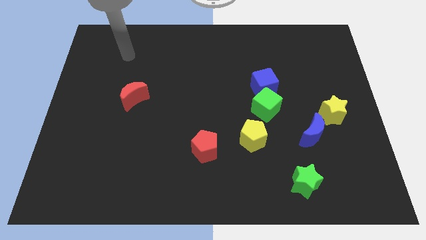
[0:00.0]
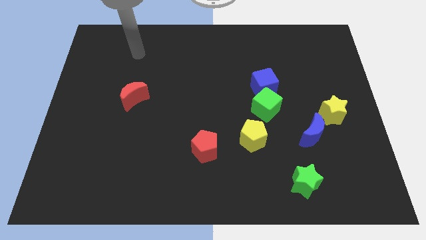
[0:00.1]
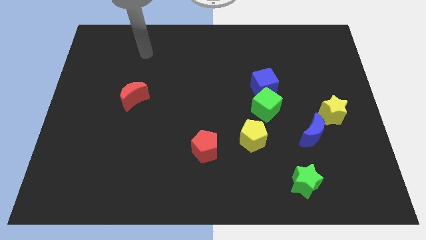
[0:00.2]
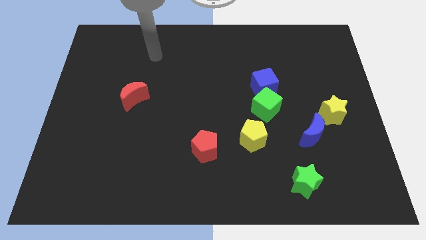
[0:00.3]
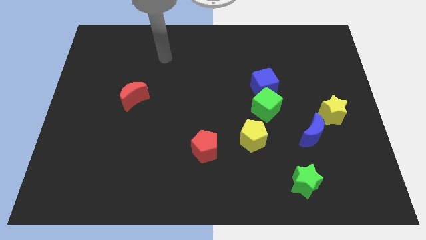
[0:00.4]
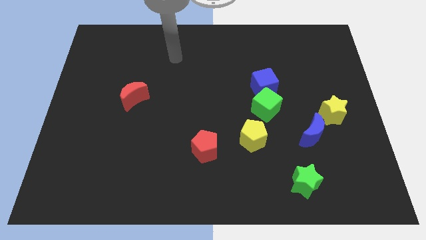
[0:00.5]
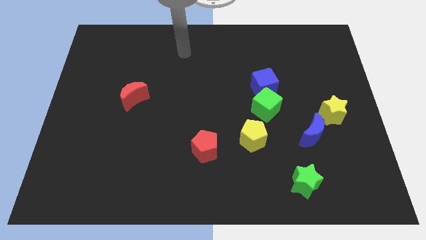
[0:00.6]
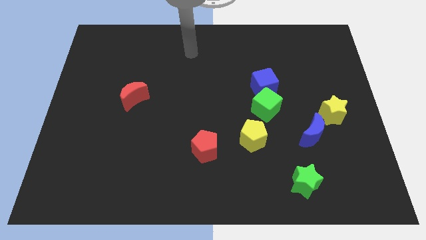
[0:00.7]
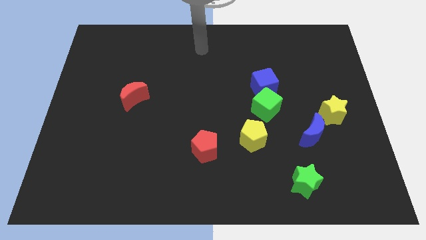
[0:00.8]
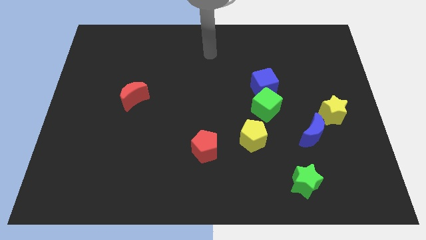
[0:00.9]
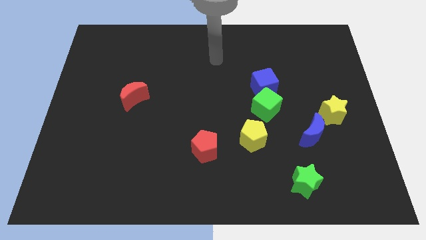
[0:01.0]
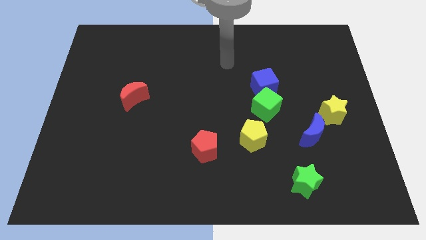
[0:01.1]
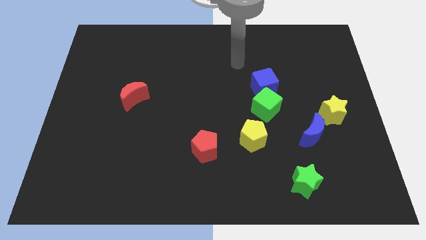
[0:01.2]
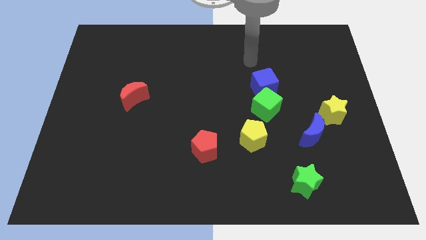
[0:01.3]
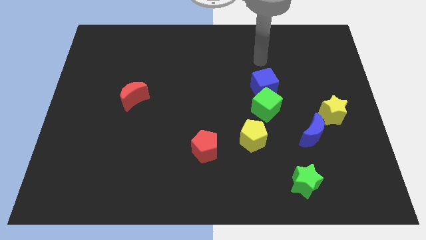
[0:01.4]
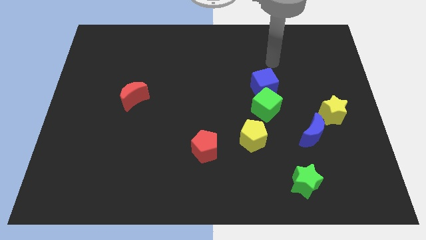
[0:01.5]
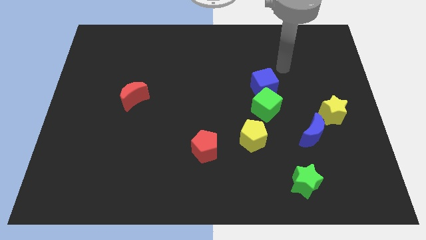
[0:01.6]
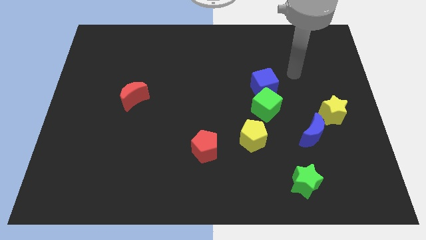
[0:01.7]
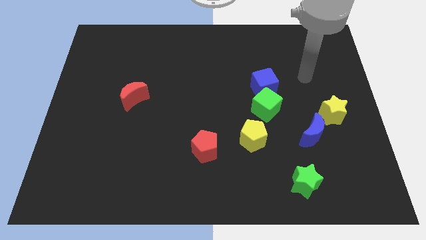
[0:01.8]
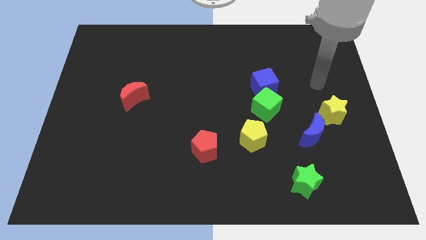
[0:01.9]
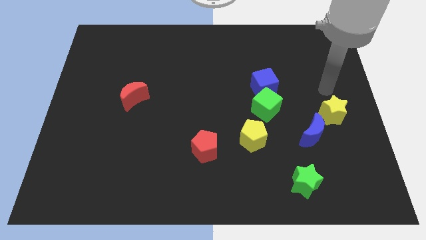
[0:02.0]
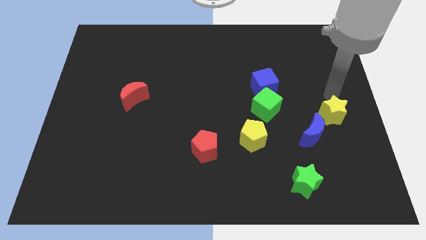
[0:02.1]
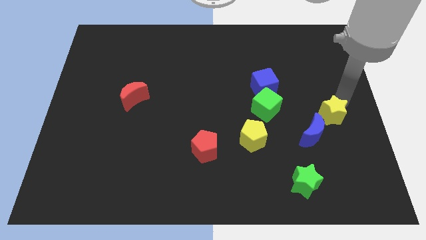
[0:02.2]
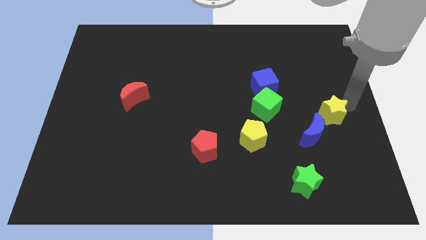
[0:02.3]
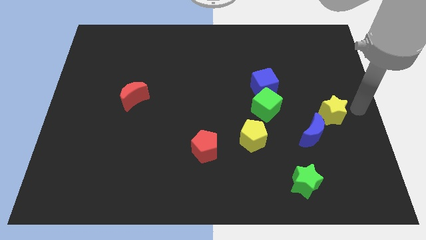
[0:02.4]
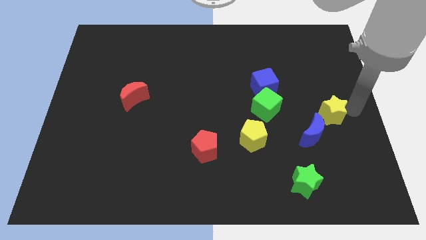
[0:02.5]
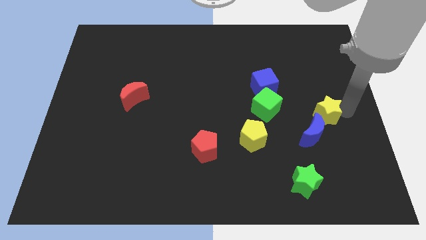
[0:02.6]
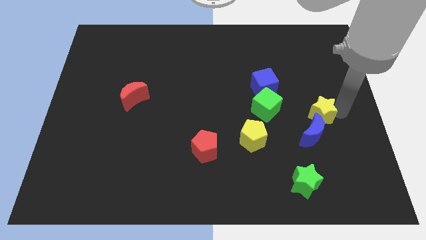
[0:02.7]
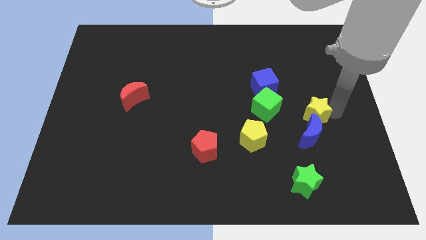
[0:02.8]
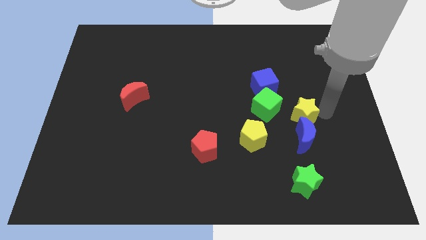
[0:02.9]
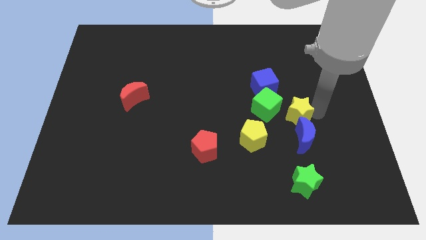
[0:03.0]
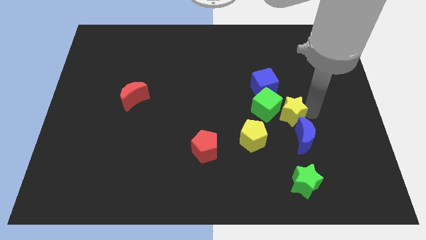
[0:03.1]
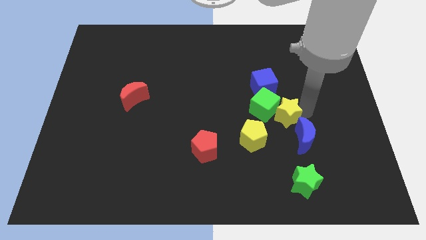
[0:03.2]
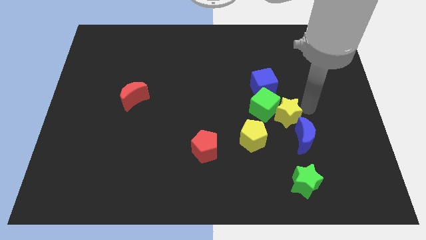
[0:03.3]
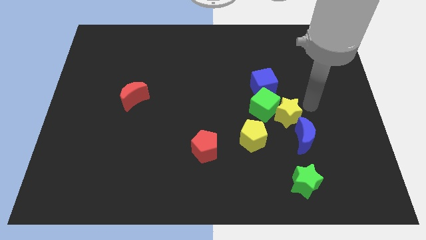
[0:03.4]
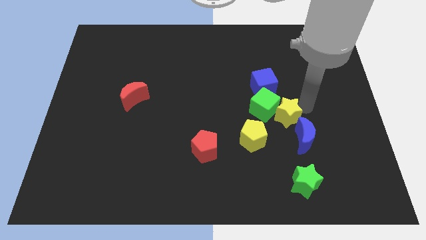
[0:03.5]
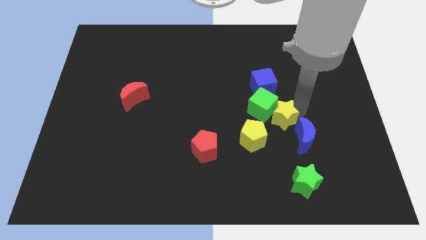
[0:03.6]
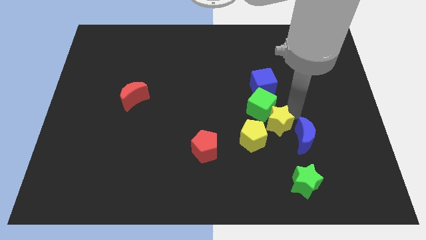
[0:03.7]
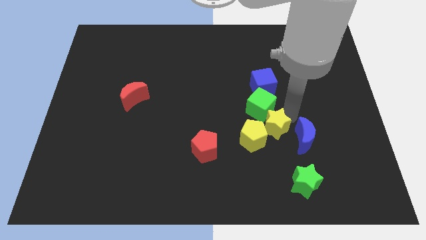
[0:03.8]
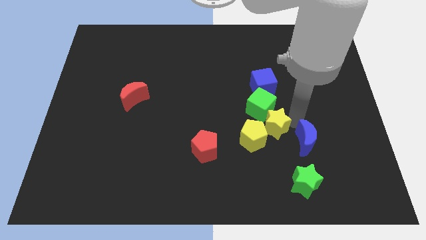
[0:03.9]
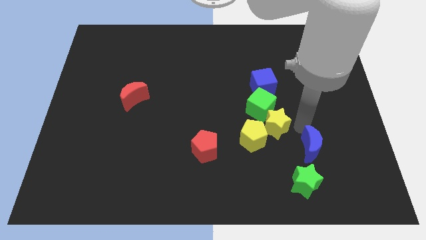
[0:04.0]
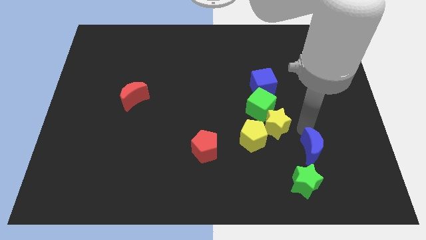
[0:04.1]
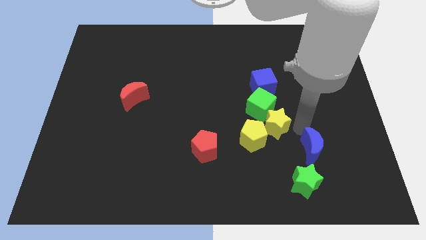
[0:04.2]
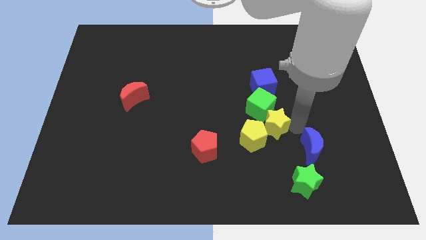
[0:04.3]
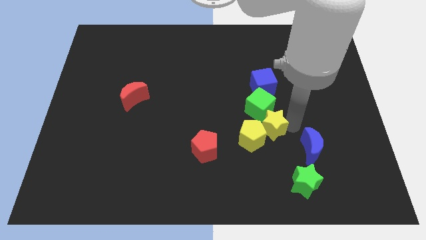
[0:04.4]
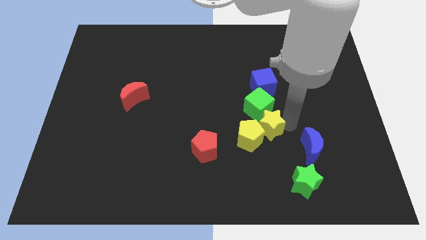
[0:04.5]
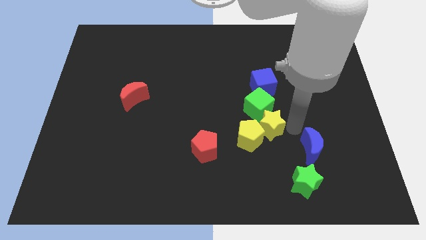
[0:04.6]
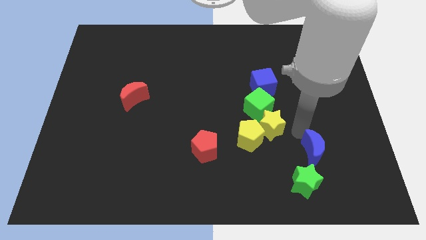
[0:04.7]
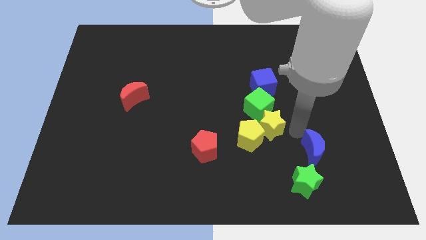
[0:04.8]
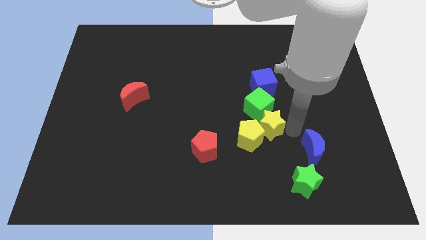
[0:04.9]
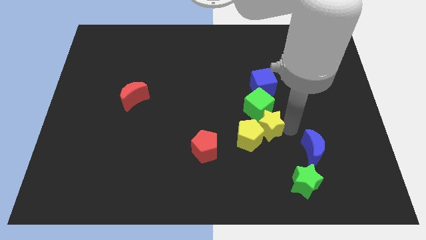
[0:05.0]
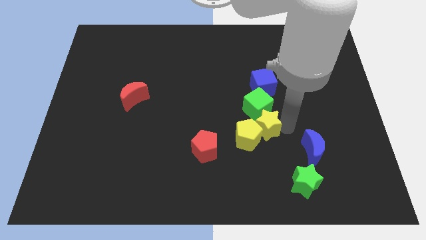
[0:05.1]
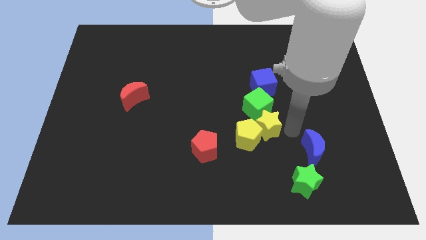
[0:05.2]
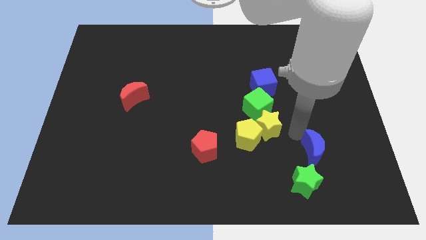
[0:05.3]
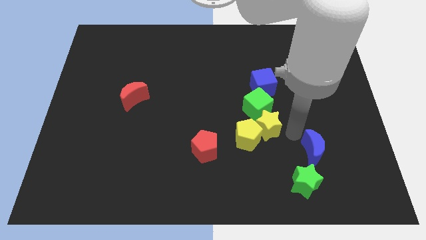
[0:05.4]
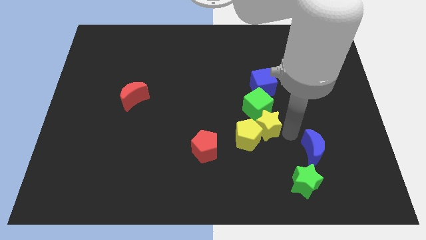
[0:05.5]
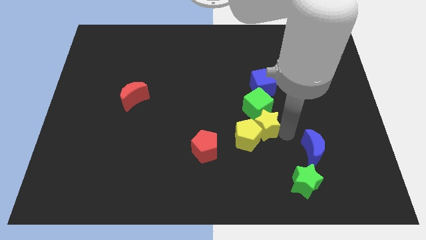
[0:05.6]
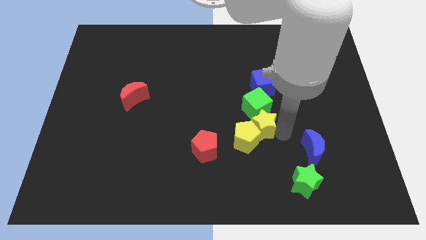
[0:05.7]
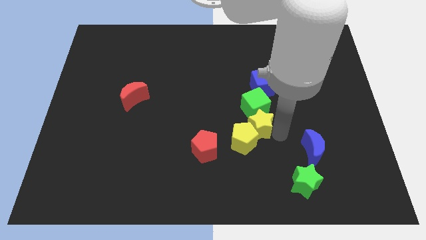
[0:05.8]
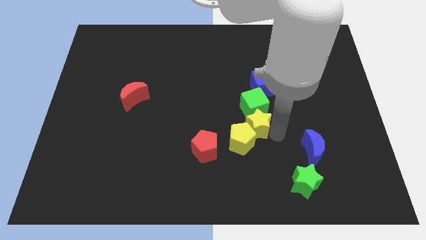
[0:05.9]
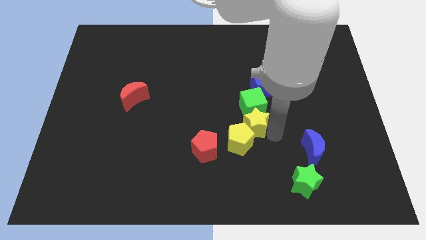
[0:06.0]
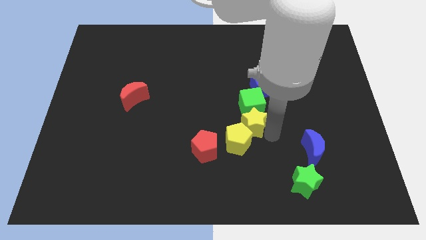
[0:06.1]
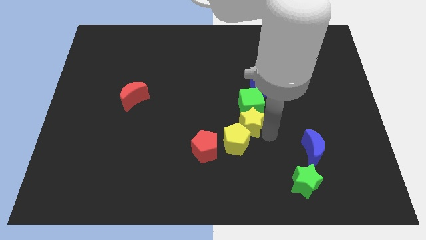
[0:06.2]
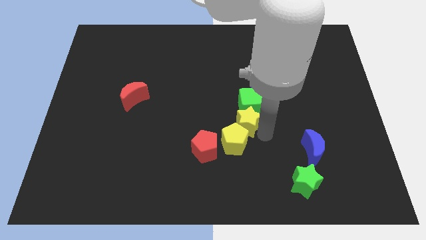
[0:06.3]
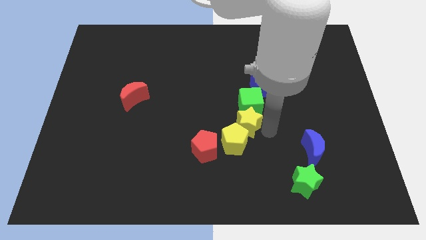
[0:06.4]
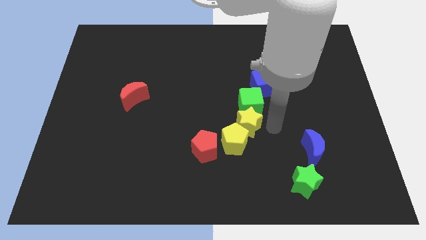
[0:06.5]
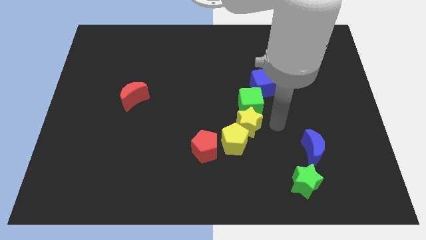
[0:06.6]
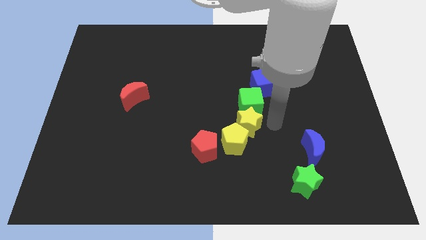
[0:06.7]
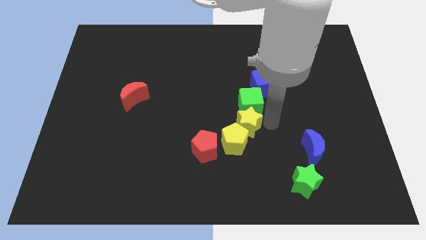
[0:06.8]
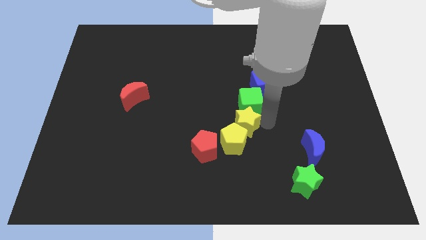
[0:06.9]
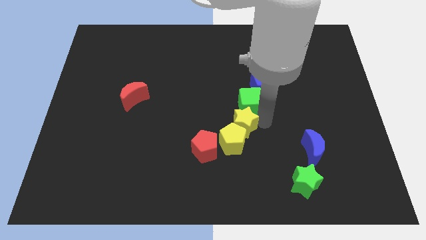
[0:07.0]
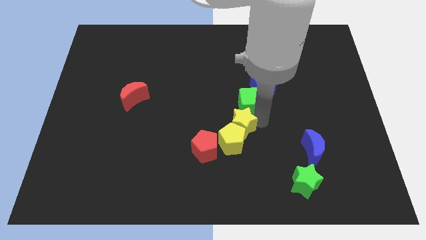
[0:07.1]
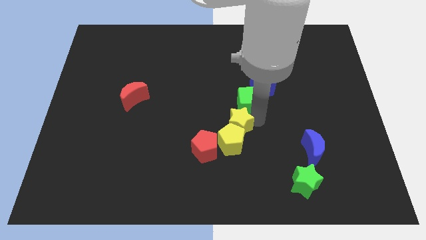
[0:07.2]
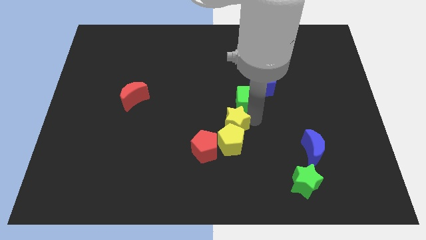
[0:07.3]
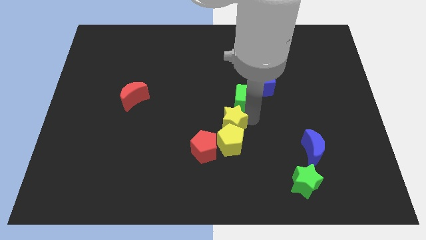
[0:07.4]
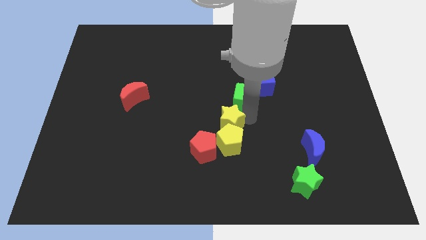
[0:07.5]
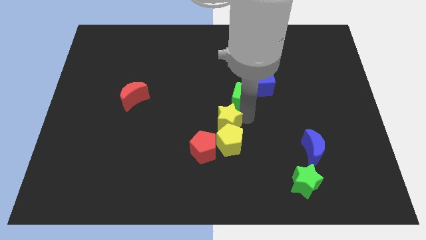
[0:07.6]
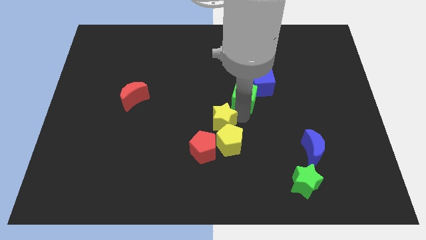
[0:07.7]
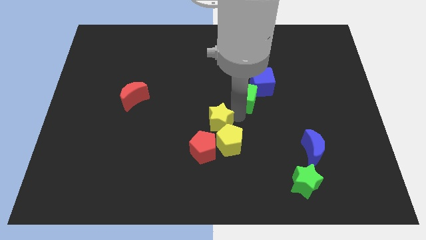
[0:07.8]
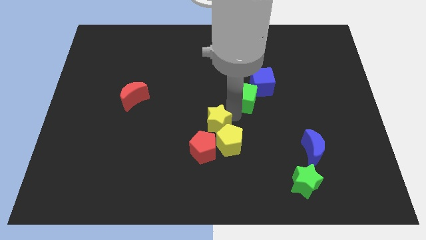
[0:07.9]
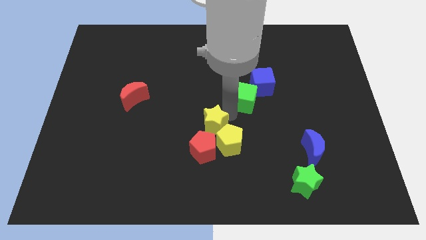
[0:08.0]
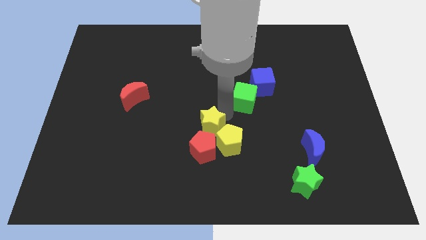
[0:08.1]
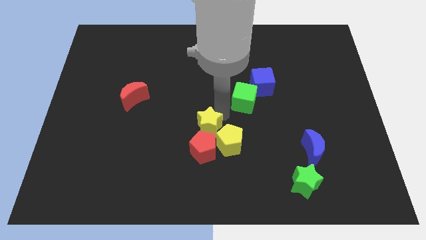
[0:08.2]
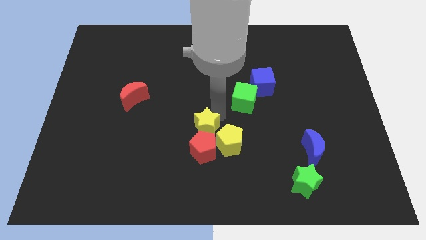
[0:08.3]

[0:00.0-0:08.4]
put the yellow star to the top left of the red pentagon
